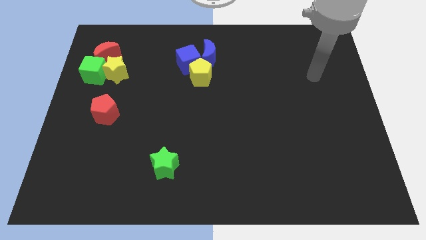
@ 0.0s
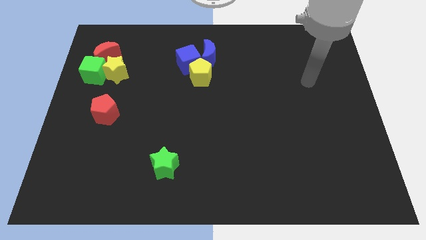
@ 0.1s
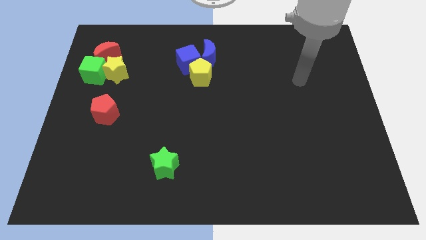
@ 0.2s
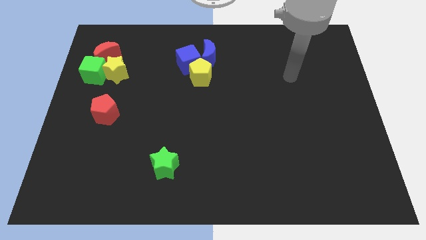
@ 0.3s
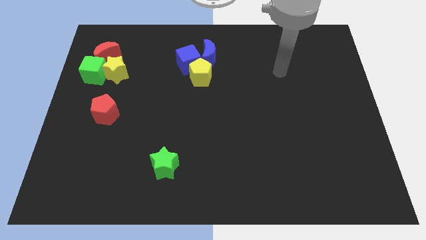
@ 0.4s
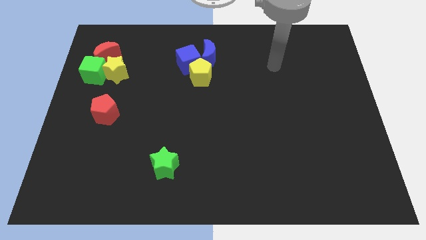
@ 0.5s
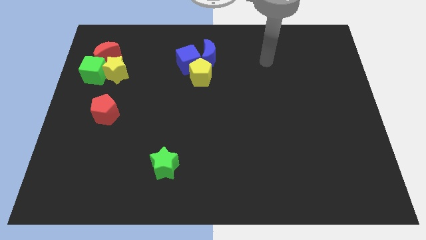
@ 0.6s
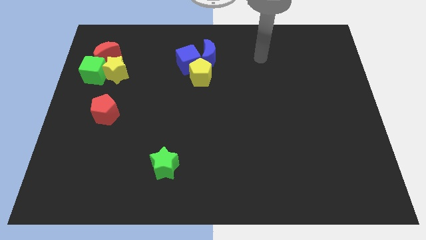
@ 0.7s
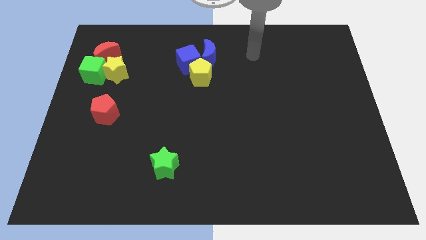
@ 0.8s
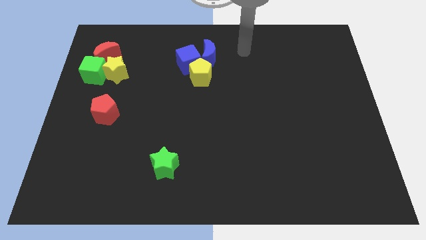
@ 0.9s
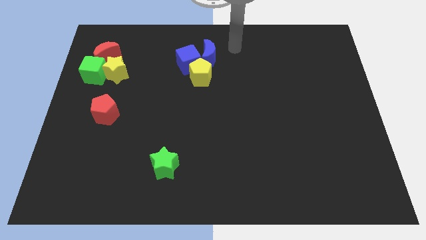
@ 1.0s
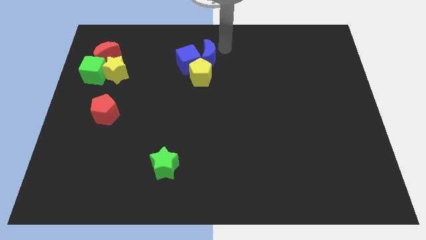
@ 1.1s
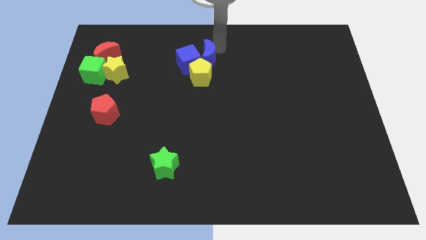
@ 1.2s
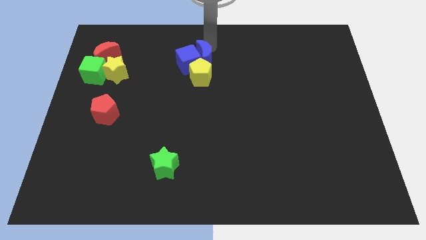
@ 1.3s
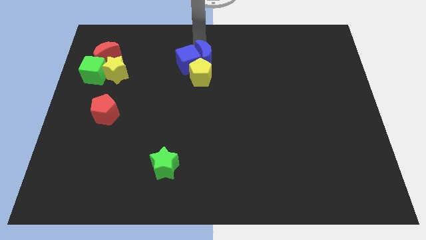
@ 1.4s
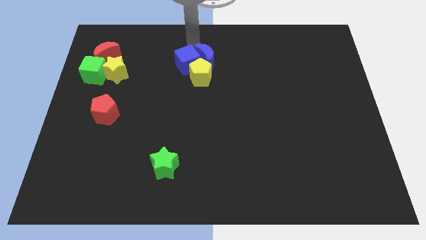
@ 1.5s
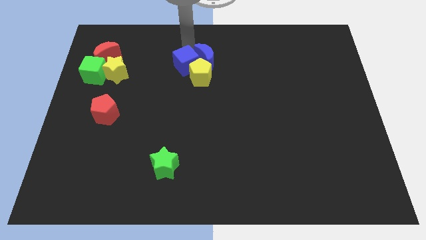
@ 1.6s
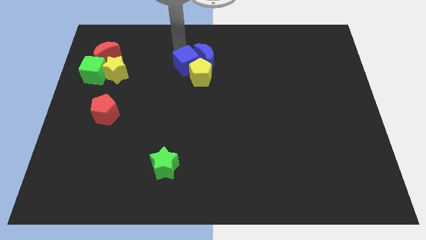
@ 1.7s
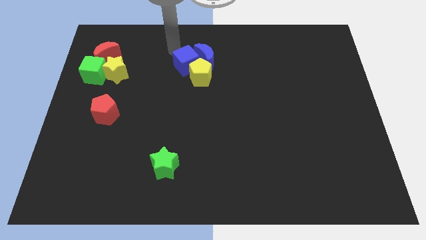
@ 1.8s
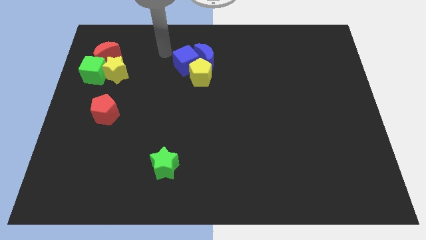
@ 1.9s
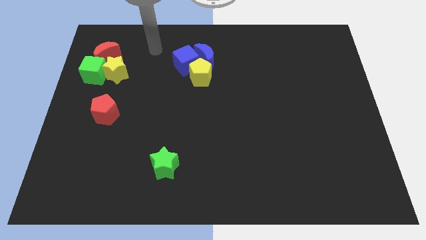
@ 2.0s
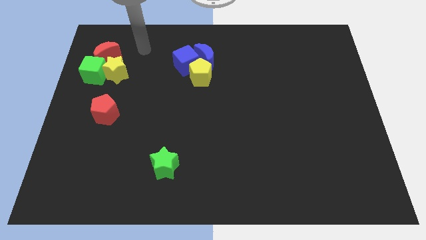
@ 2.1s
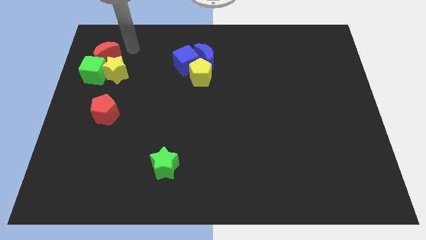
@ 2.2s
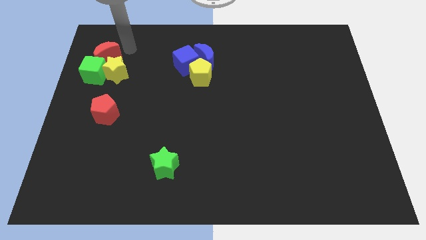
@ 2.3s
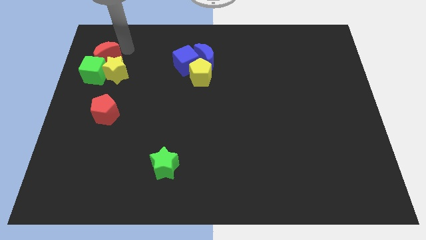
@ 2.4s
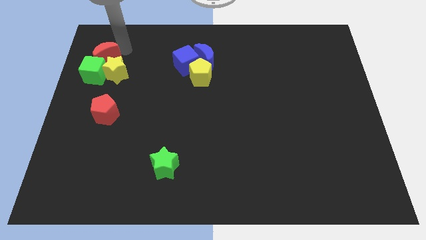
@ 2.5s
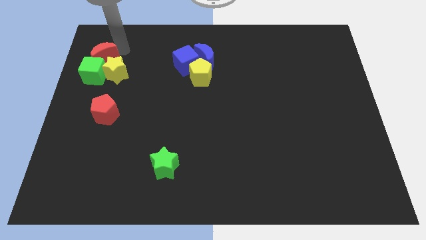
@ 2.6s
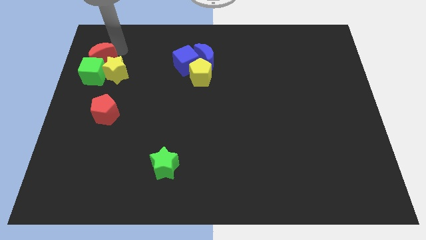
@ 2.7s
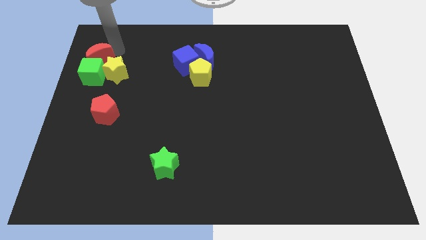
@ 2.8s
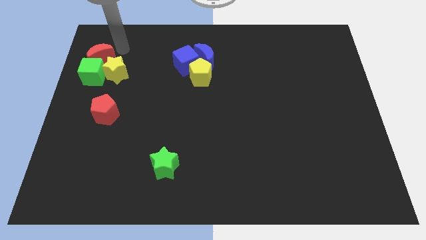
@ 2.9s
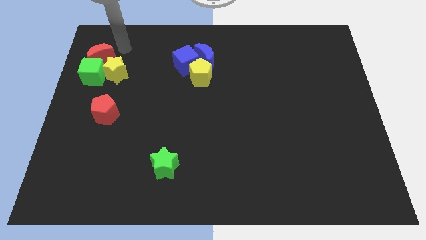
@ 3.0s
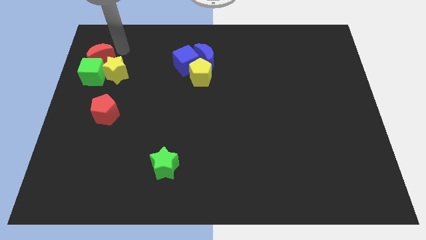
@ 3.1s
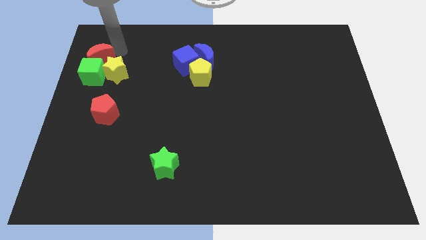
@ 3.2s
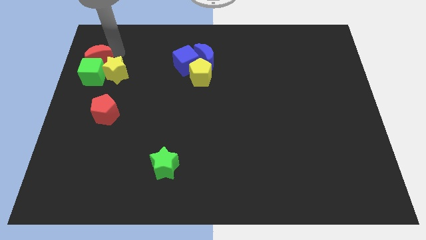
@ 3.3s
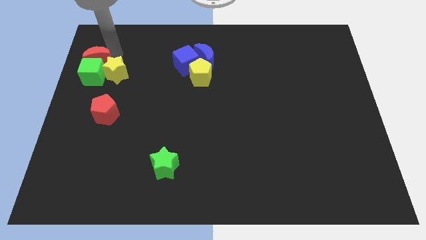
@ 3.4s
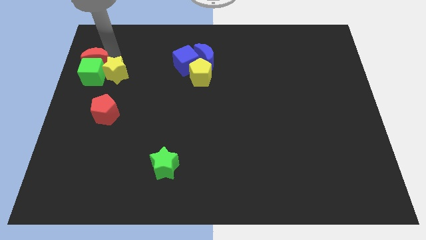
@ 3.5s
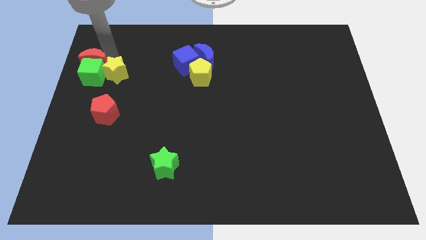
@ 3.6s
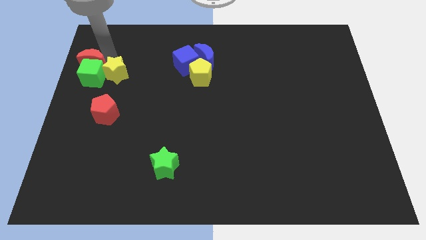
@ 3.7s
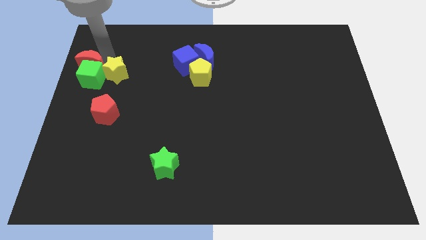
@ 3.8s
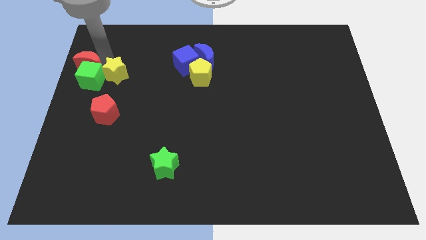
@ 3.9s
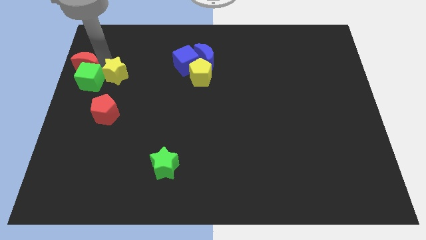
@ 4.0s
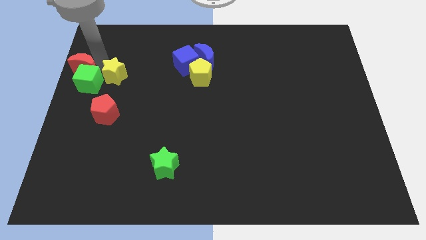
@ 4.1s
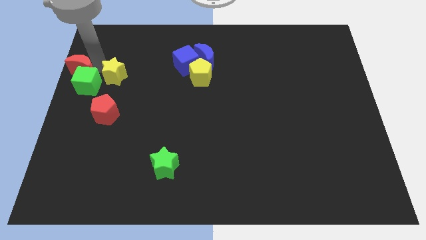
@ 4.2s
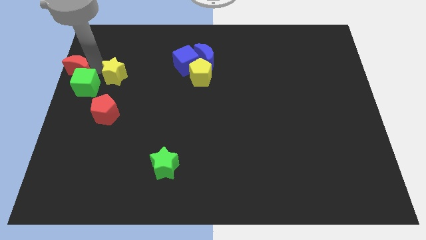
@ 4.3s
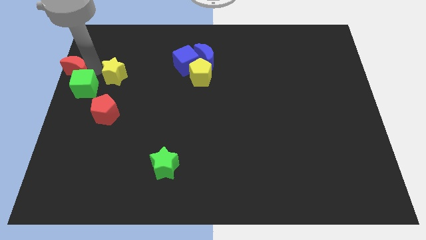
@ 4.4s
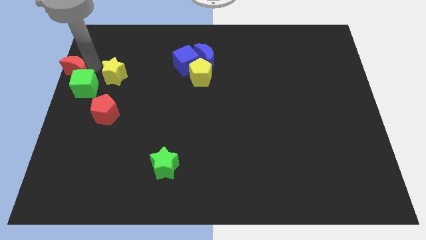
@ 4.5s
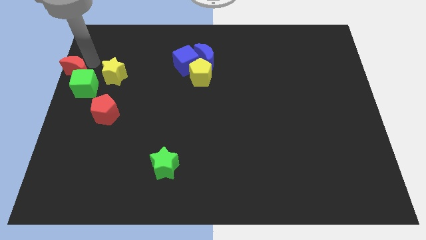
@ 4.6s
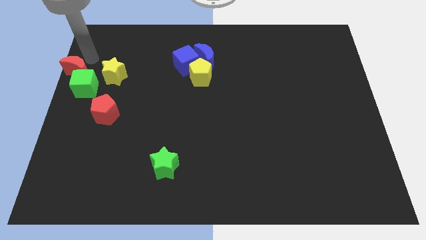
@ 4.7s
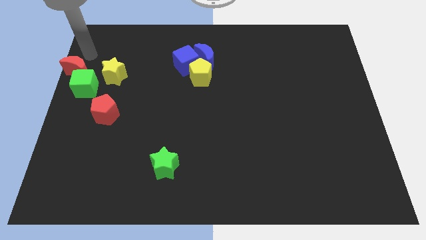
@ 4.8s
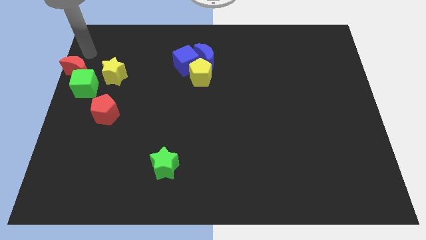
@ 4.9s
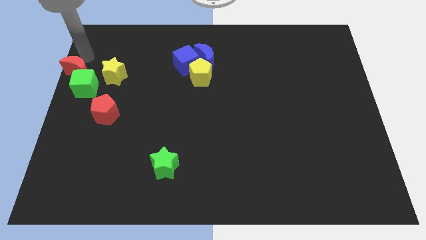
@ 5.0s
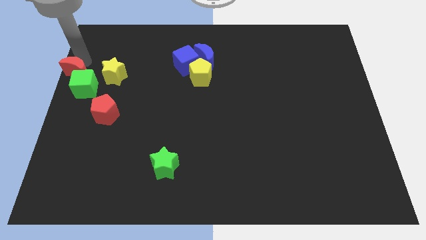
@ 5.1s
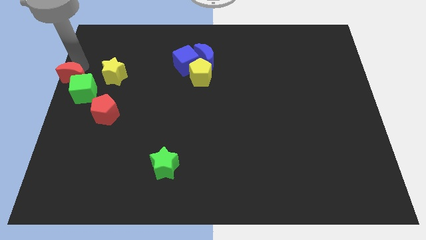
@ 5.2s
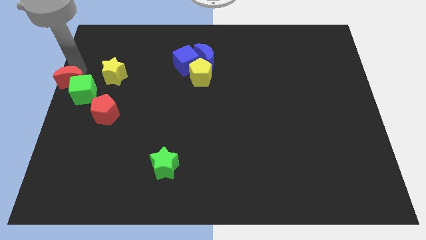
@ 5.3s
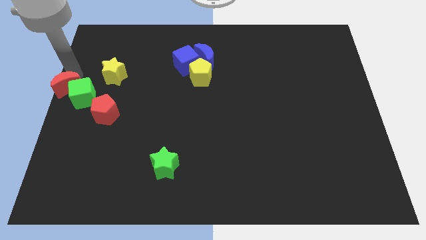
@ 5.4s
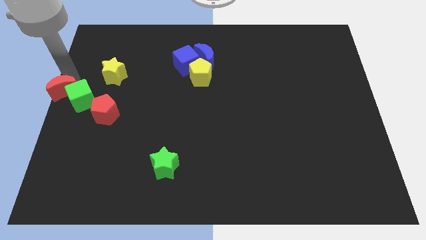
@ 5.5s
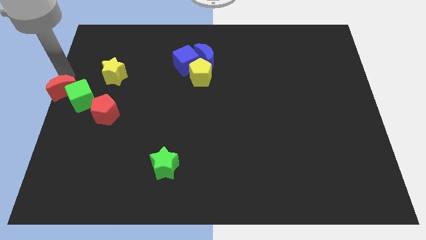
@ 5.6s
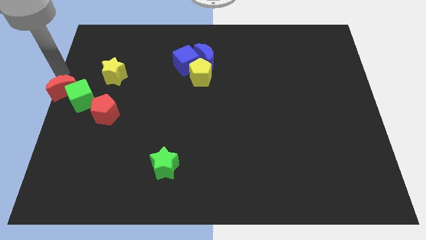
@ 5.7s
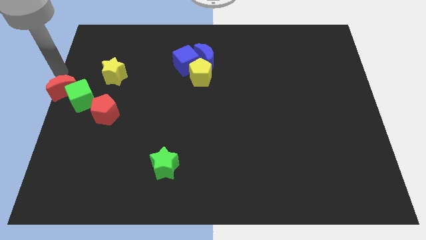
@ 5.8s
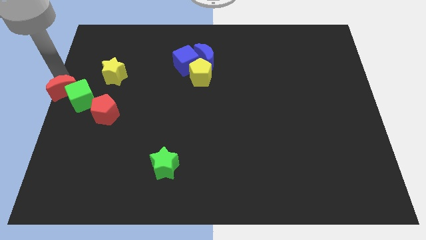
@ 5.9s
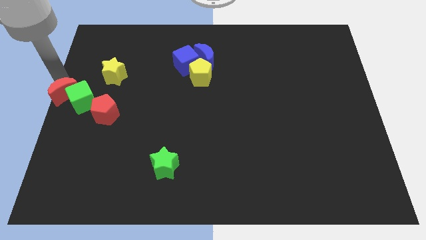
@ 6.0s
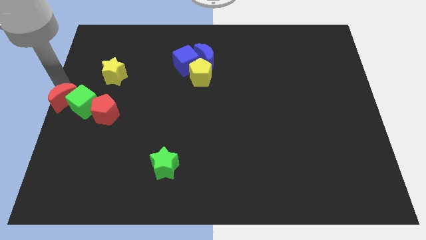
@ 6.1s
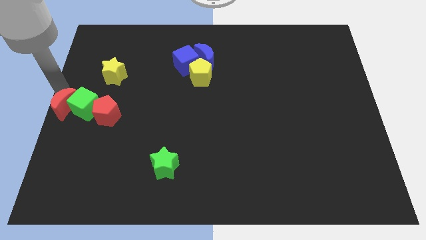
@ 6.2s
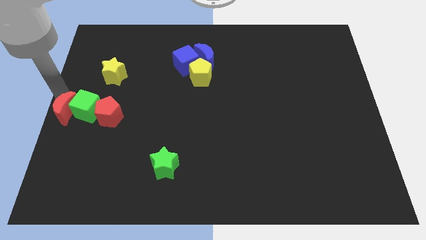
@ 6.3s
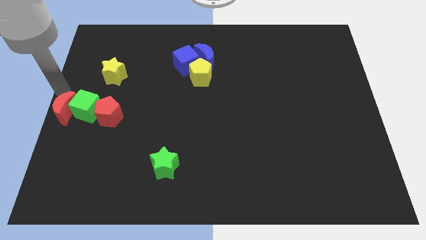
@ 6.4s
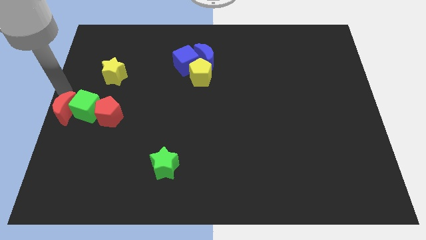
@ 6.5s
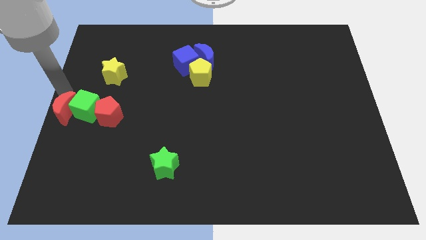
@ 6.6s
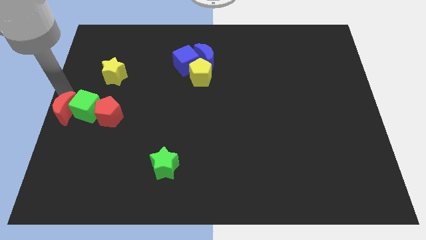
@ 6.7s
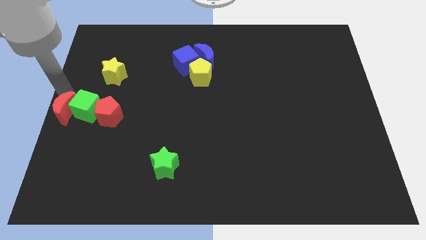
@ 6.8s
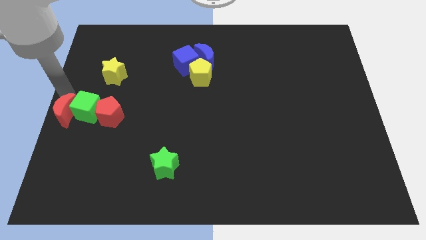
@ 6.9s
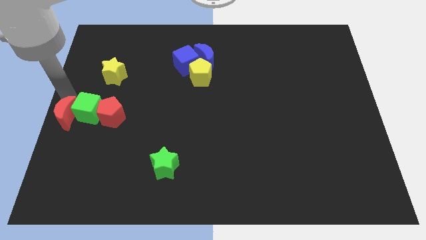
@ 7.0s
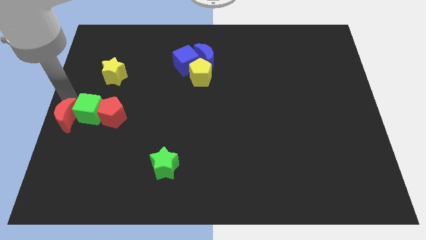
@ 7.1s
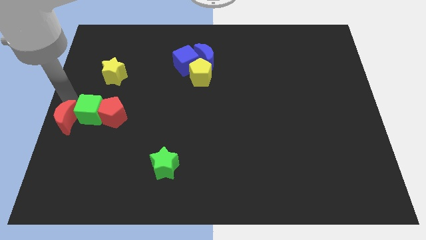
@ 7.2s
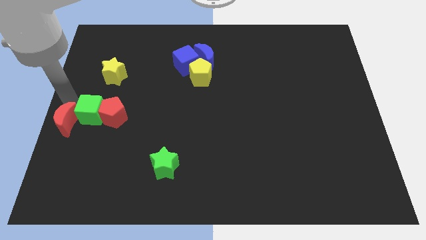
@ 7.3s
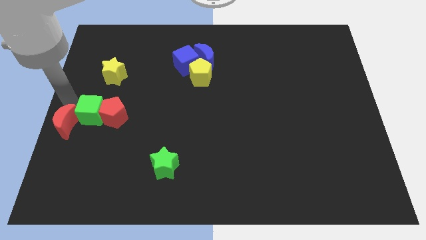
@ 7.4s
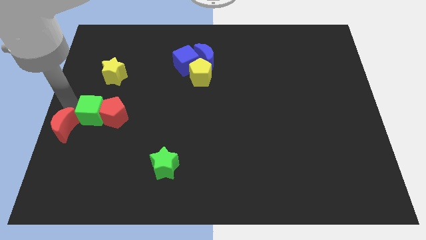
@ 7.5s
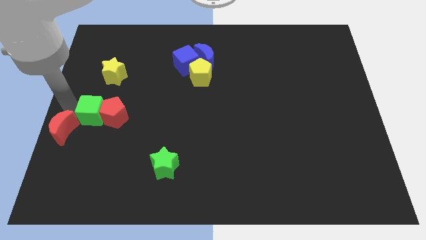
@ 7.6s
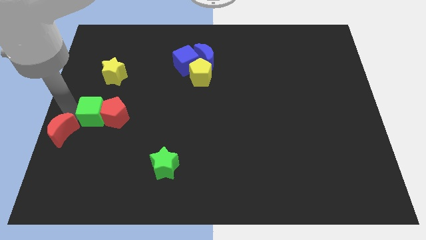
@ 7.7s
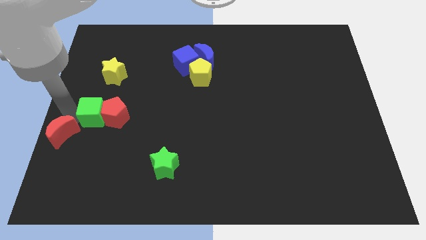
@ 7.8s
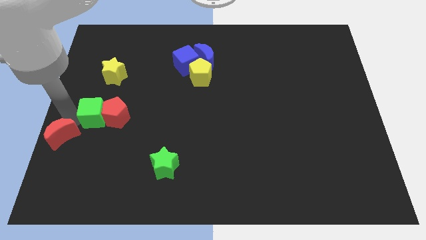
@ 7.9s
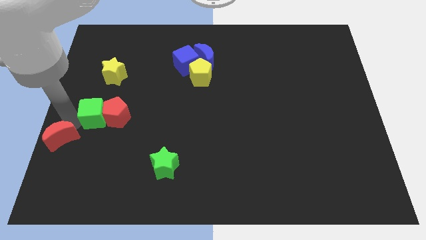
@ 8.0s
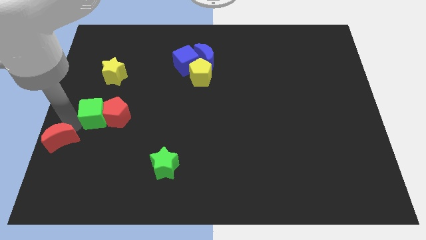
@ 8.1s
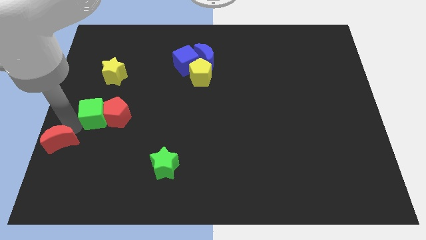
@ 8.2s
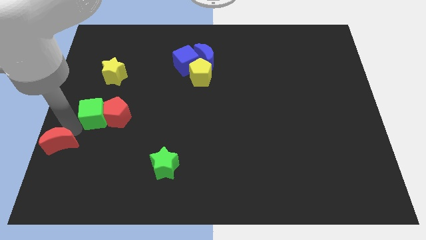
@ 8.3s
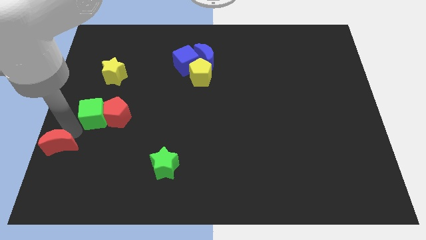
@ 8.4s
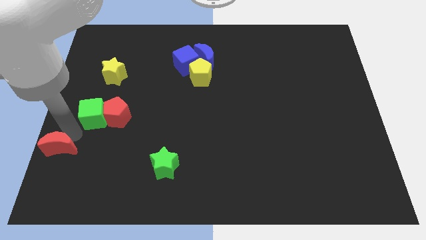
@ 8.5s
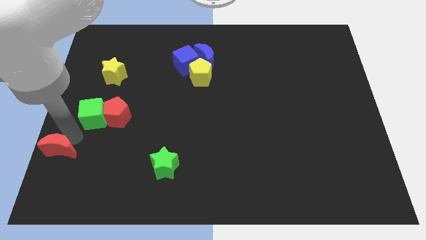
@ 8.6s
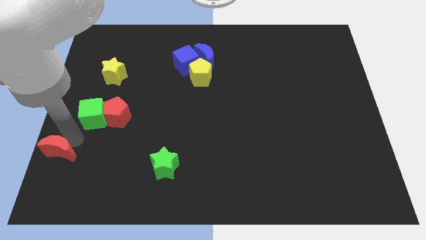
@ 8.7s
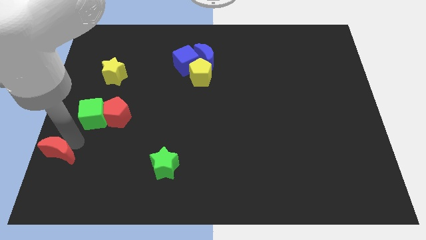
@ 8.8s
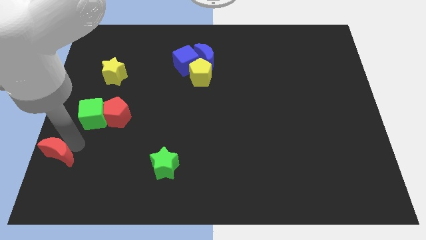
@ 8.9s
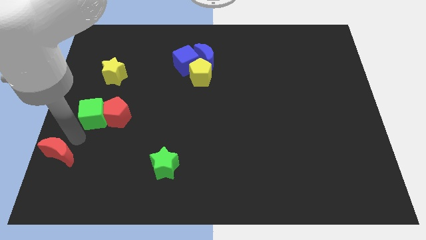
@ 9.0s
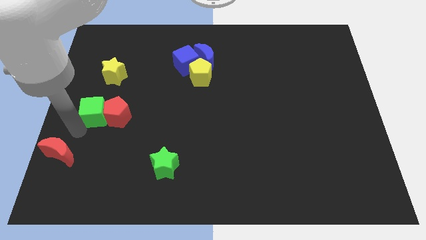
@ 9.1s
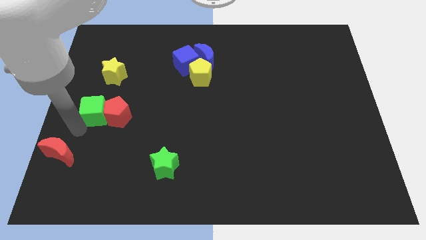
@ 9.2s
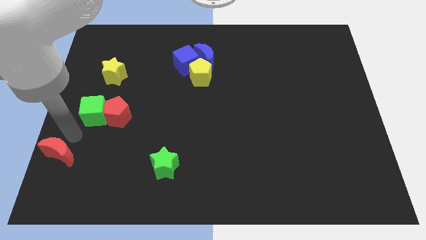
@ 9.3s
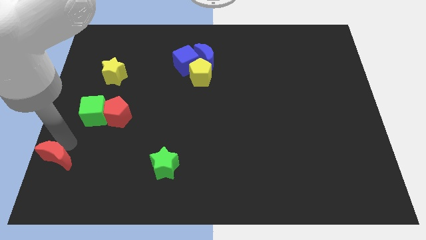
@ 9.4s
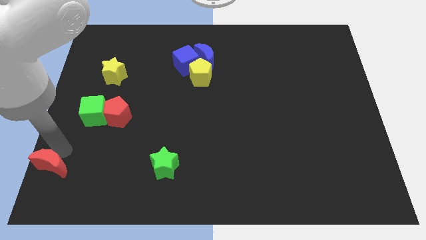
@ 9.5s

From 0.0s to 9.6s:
move the red moon to the lower left corner
